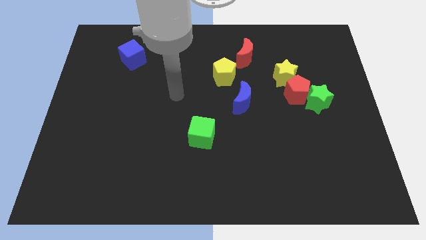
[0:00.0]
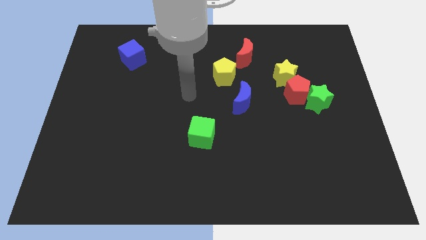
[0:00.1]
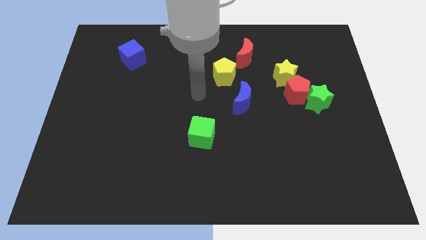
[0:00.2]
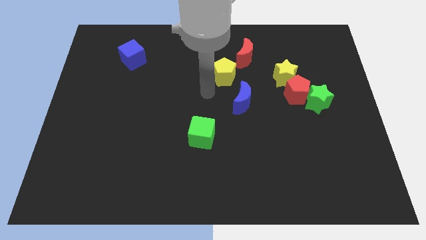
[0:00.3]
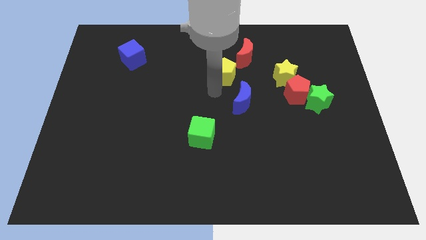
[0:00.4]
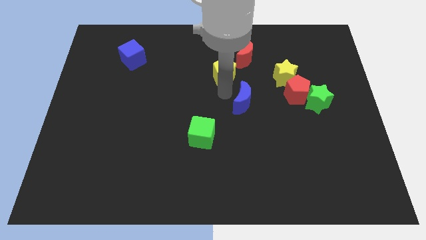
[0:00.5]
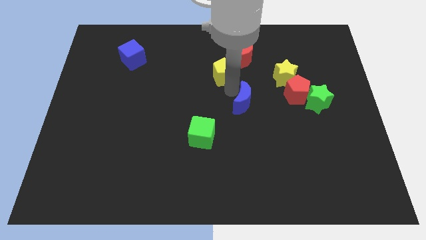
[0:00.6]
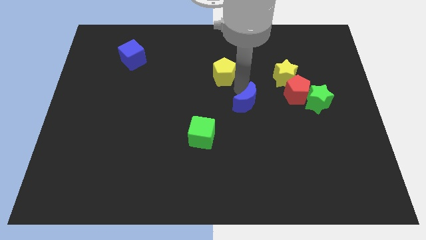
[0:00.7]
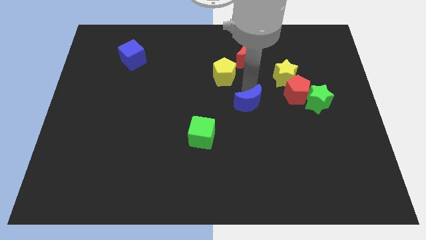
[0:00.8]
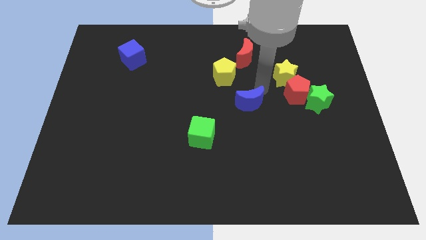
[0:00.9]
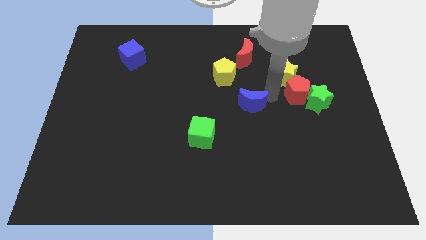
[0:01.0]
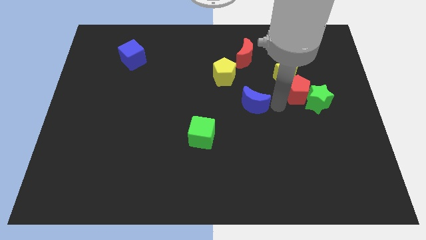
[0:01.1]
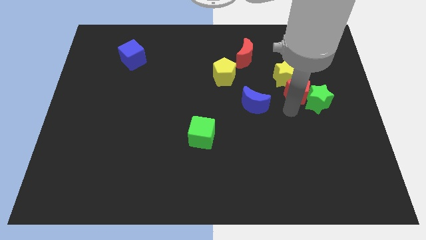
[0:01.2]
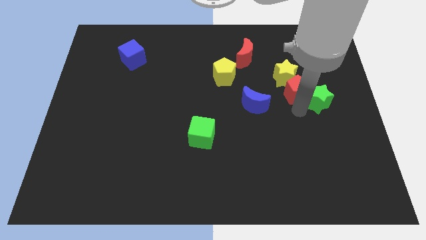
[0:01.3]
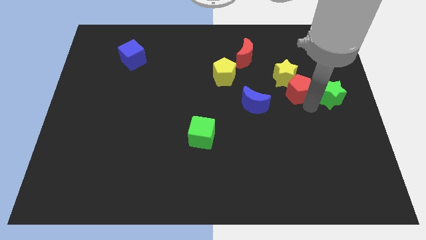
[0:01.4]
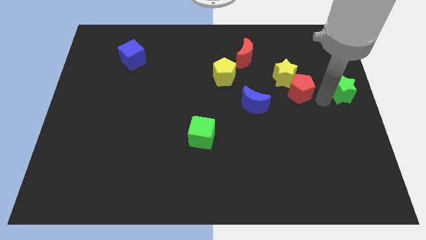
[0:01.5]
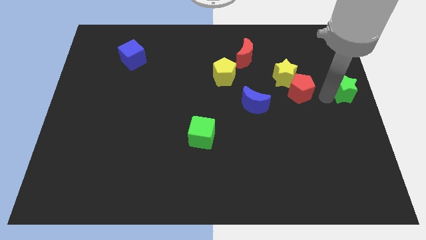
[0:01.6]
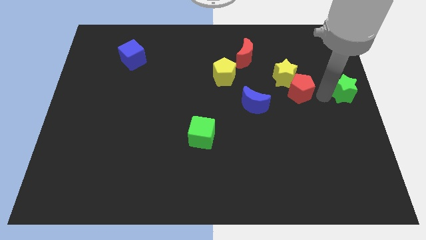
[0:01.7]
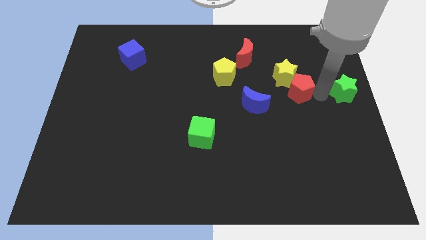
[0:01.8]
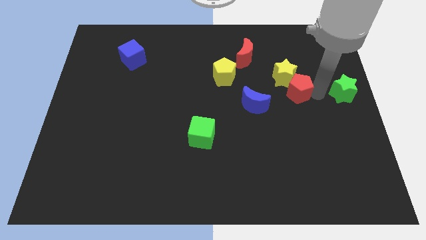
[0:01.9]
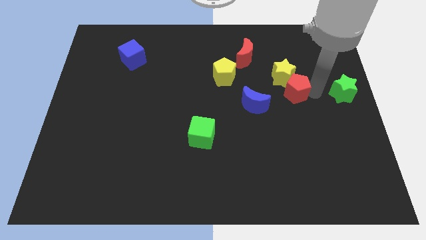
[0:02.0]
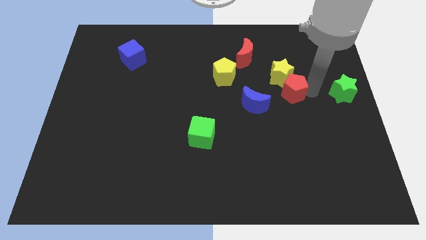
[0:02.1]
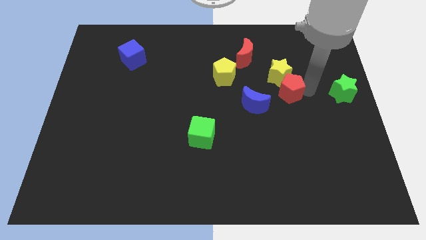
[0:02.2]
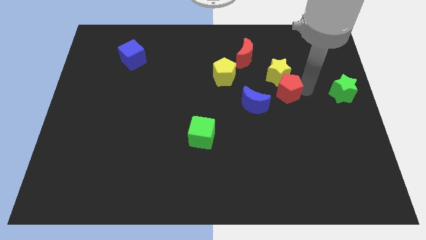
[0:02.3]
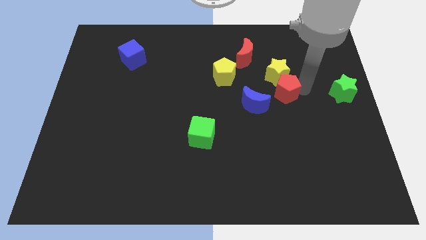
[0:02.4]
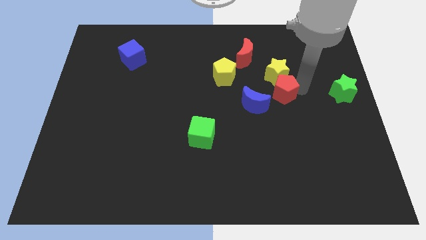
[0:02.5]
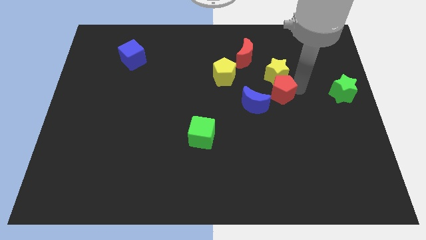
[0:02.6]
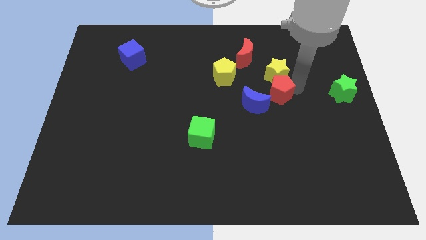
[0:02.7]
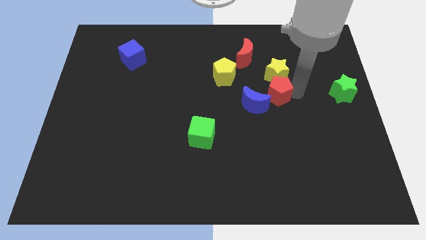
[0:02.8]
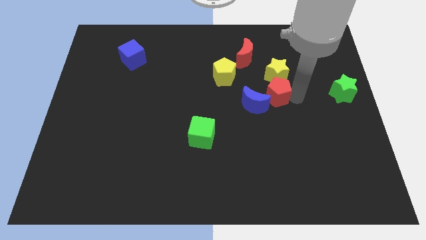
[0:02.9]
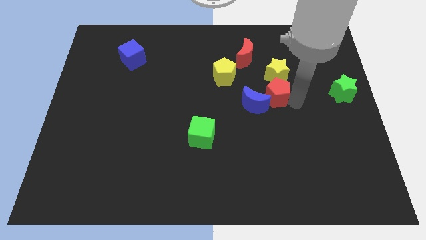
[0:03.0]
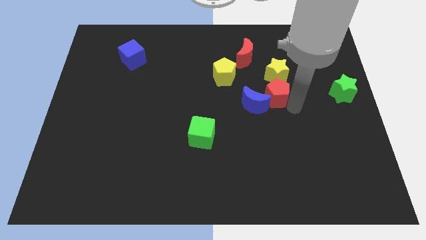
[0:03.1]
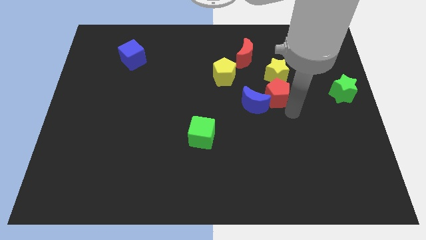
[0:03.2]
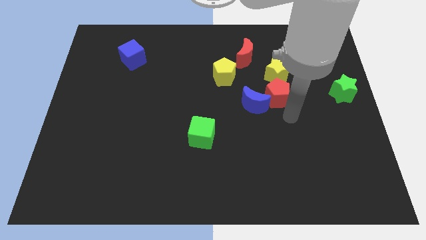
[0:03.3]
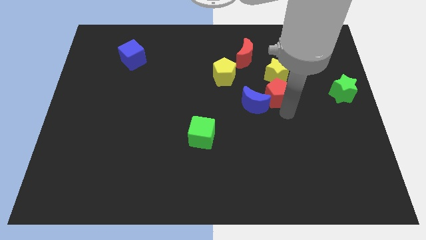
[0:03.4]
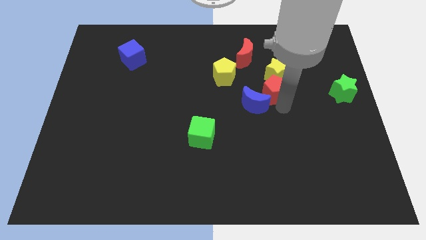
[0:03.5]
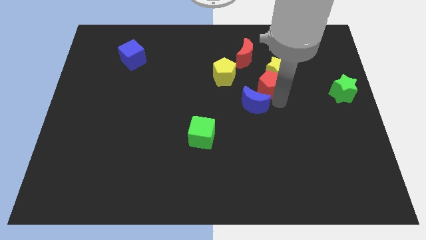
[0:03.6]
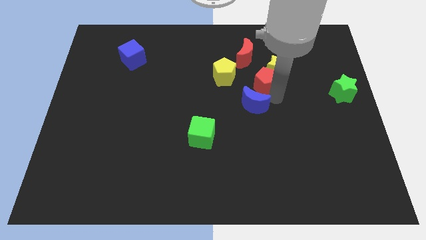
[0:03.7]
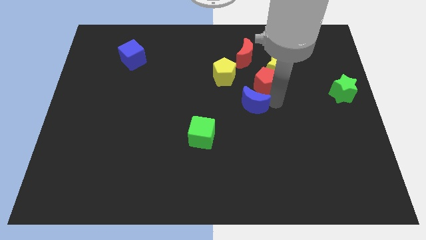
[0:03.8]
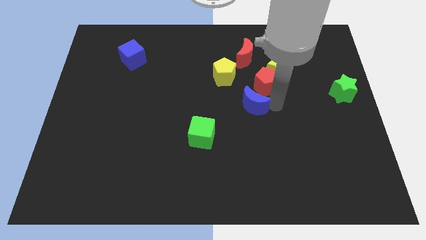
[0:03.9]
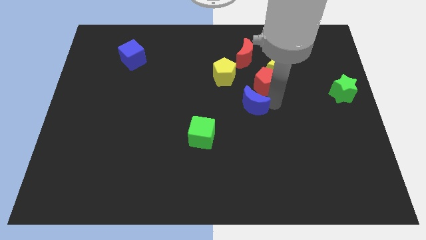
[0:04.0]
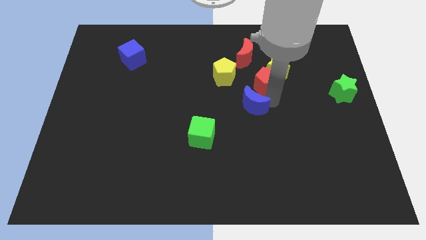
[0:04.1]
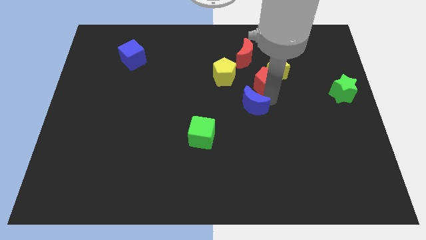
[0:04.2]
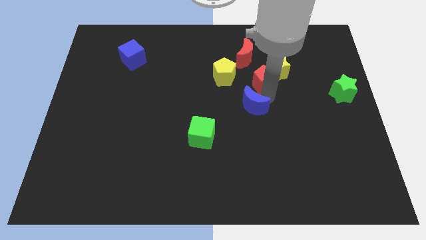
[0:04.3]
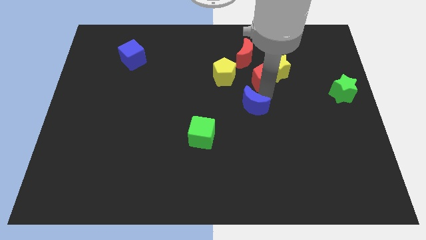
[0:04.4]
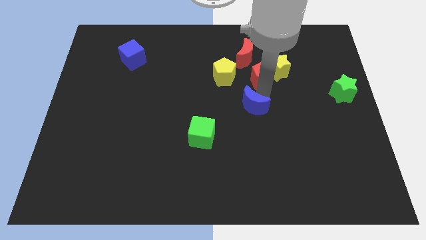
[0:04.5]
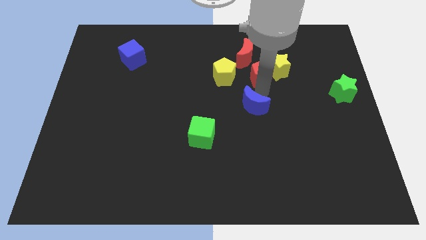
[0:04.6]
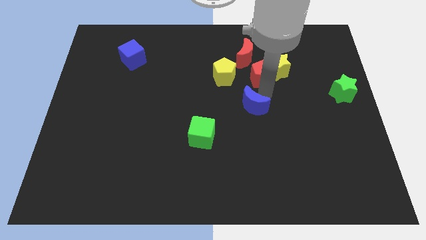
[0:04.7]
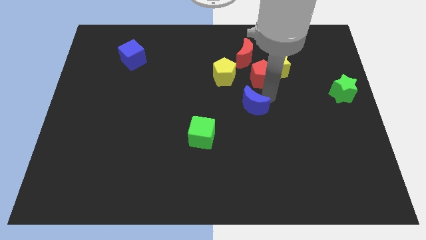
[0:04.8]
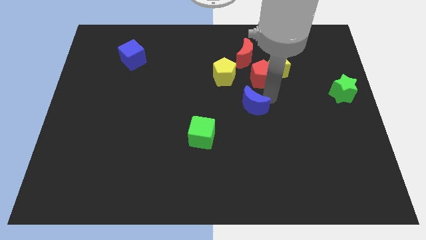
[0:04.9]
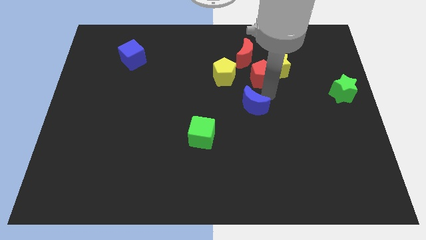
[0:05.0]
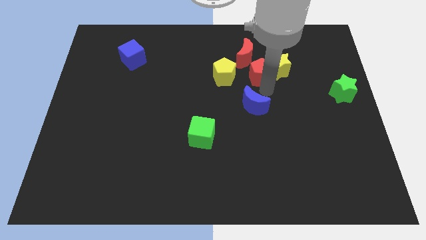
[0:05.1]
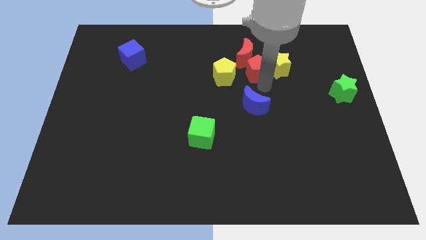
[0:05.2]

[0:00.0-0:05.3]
move the red pentagon to the red moon

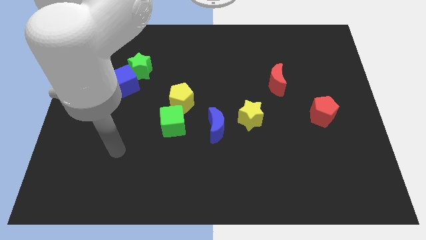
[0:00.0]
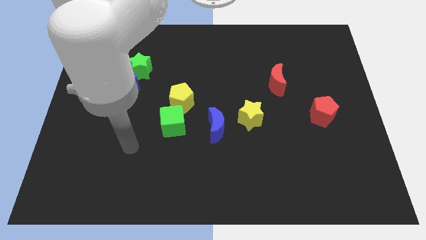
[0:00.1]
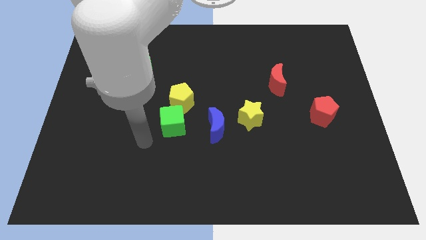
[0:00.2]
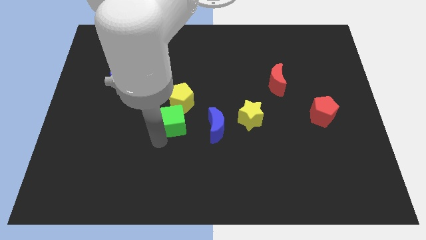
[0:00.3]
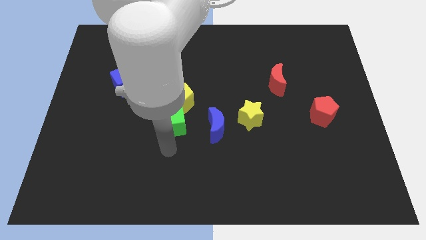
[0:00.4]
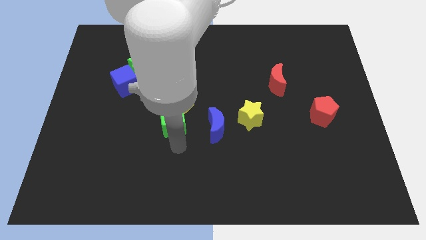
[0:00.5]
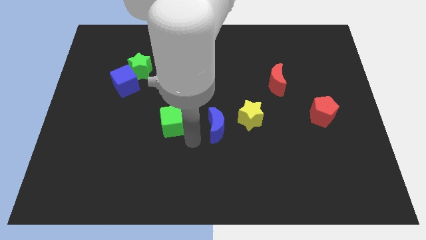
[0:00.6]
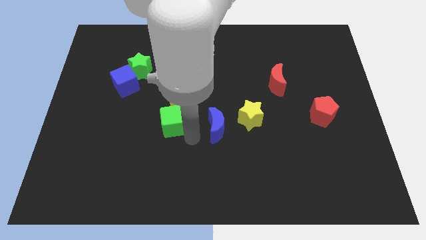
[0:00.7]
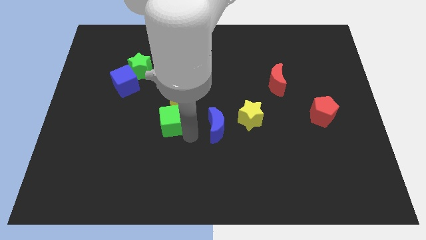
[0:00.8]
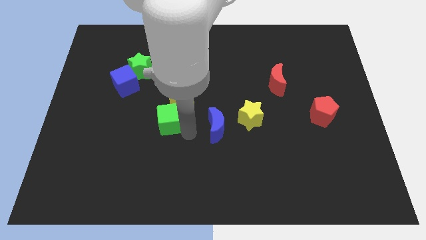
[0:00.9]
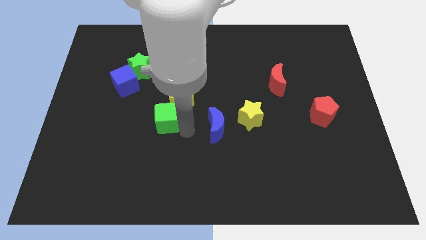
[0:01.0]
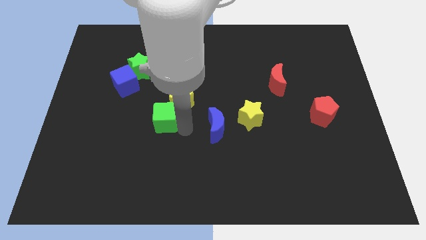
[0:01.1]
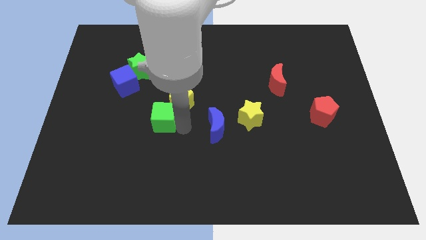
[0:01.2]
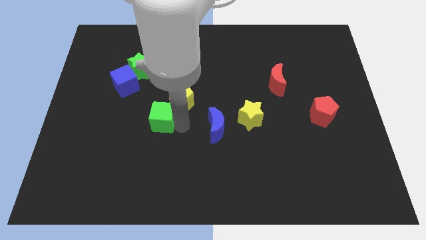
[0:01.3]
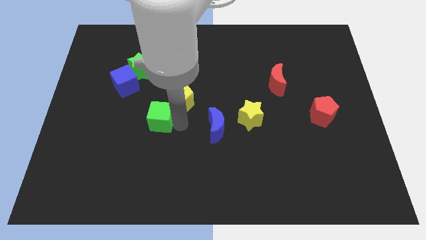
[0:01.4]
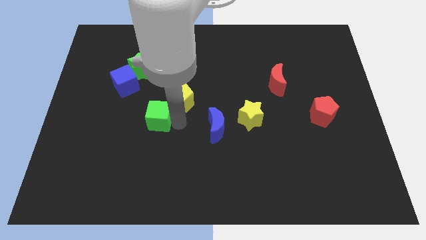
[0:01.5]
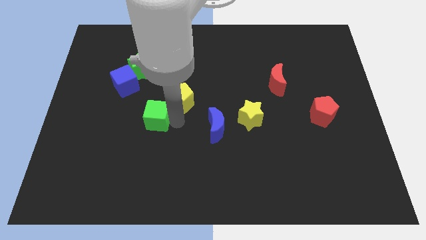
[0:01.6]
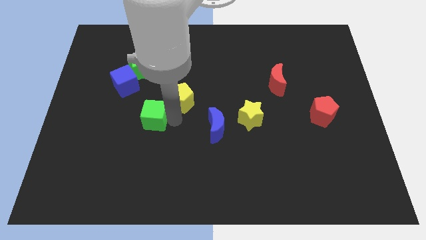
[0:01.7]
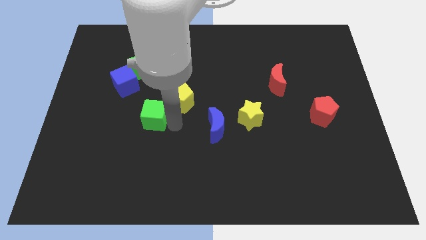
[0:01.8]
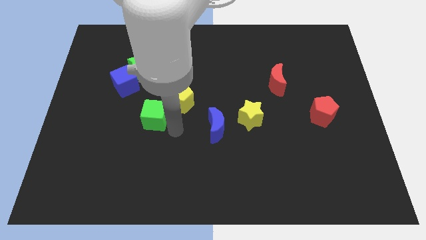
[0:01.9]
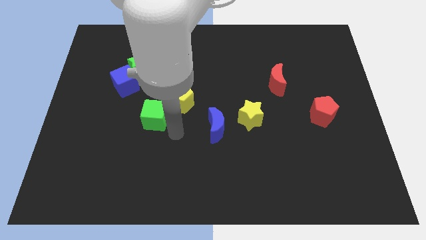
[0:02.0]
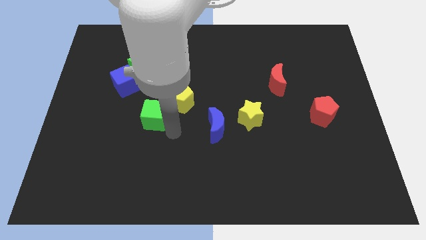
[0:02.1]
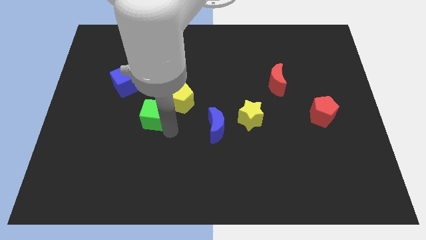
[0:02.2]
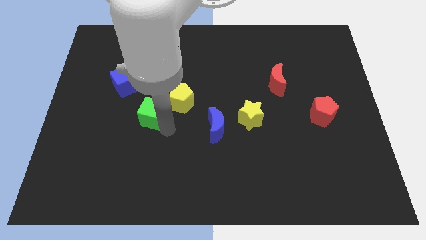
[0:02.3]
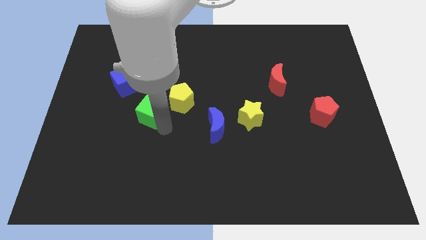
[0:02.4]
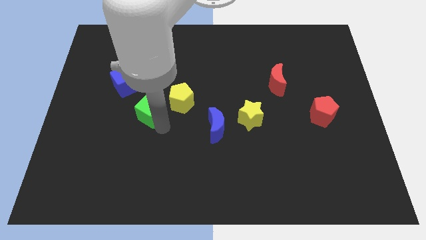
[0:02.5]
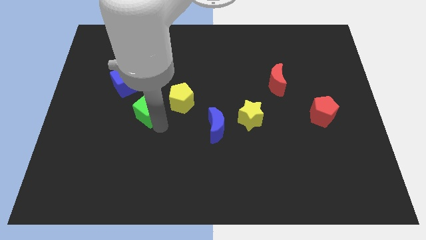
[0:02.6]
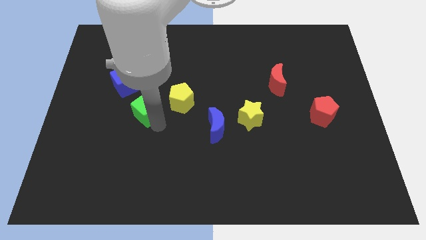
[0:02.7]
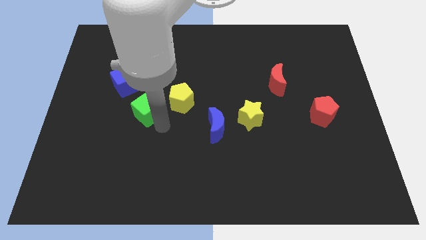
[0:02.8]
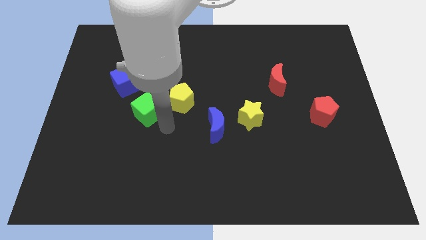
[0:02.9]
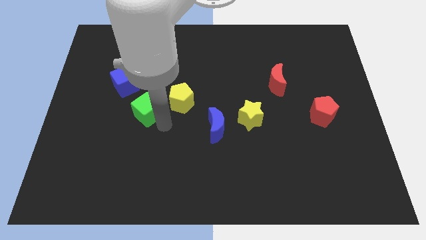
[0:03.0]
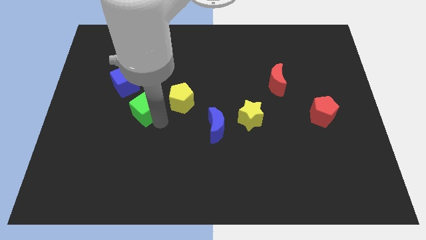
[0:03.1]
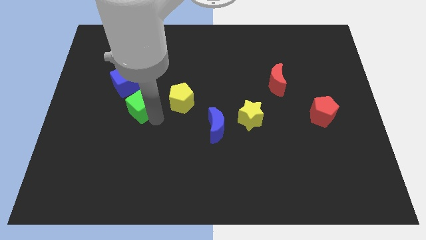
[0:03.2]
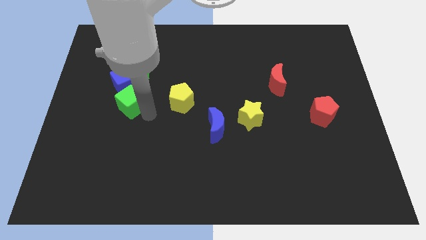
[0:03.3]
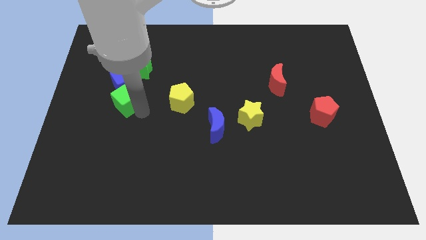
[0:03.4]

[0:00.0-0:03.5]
push the green cube next to the blue cube
